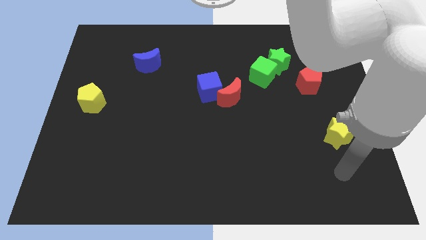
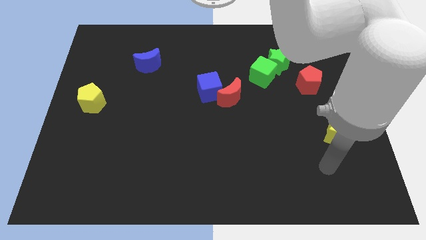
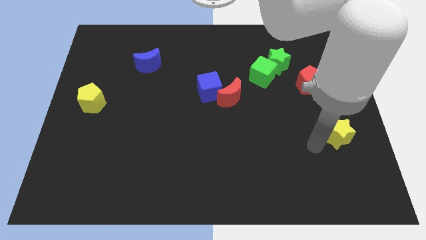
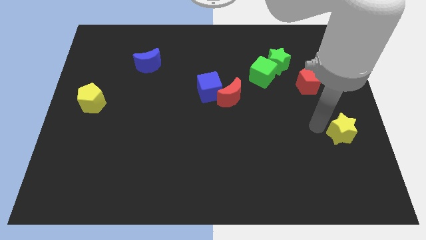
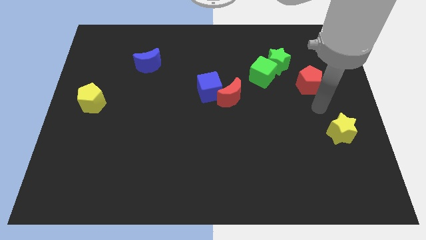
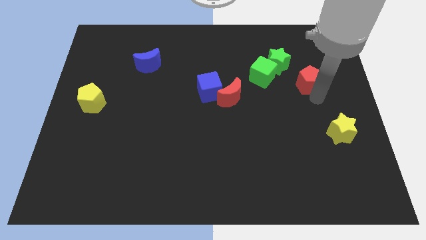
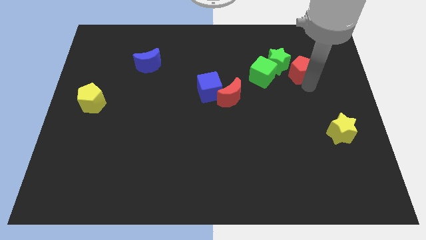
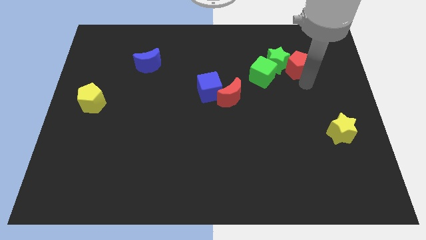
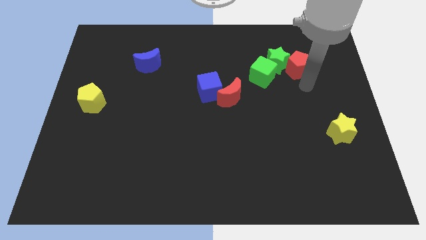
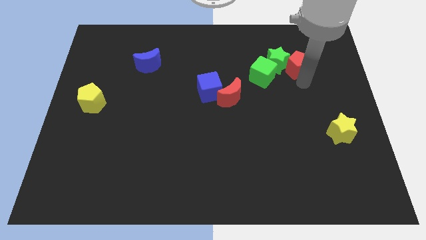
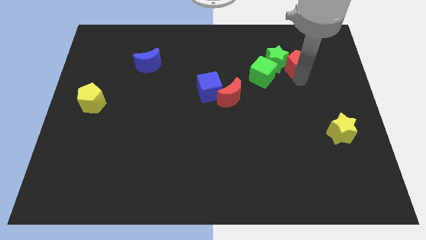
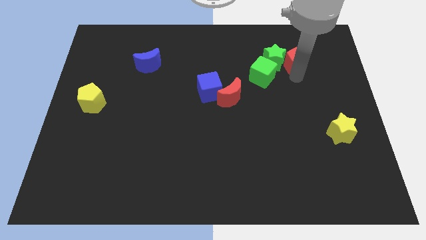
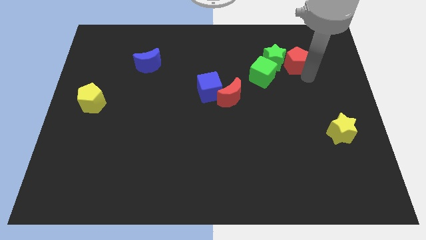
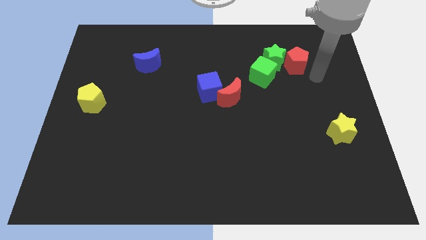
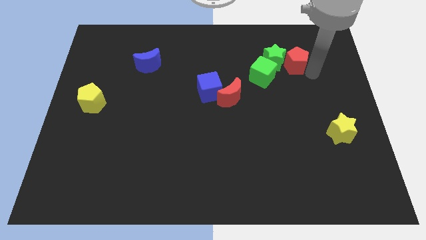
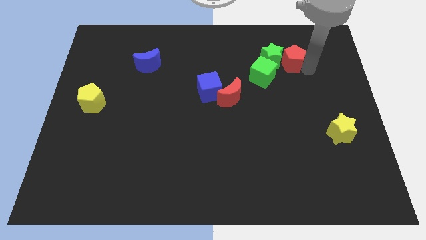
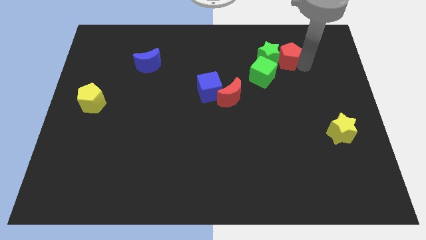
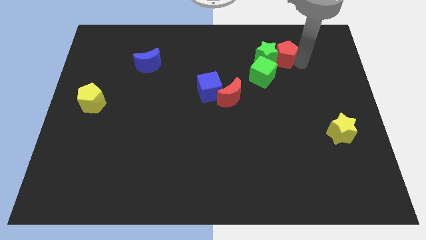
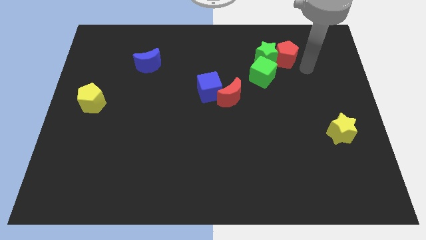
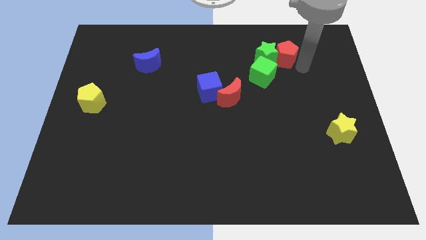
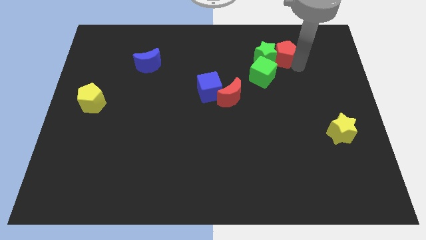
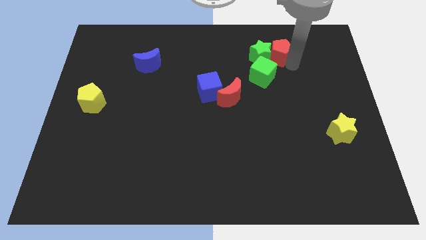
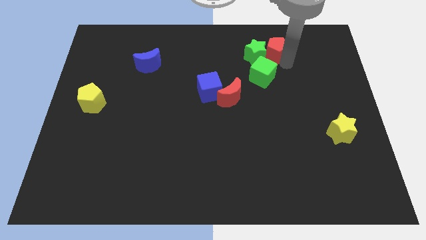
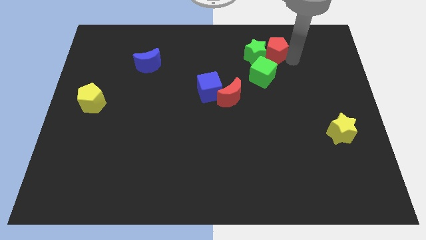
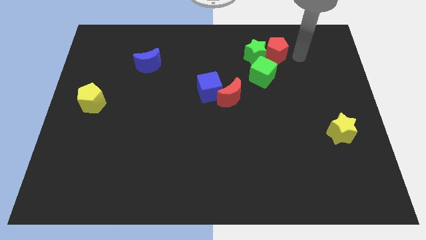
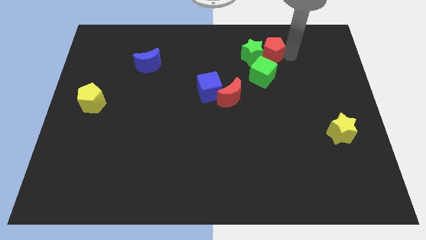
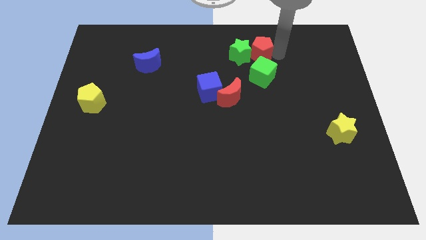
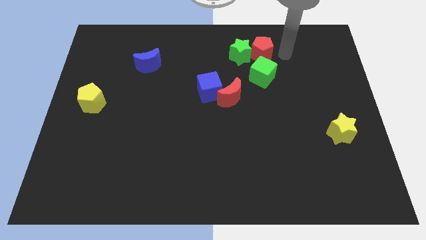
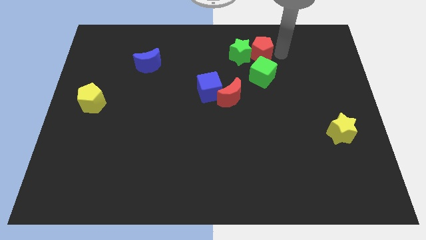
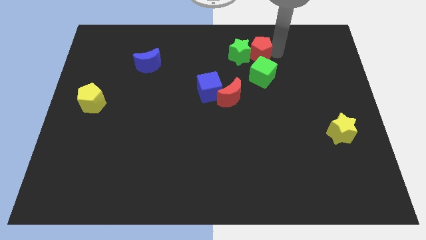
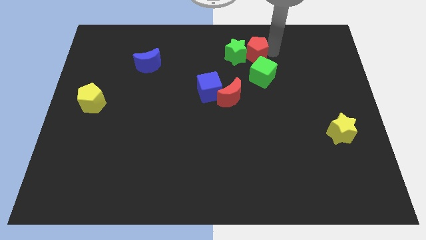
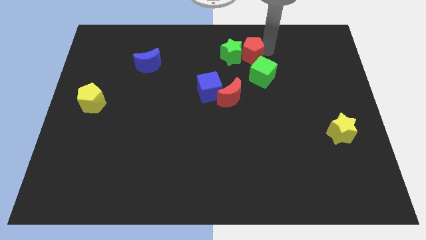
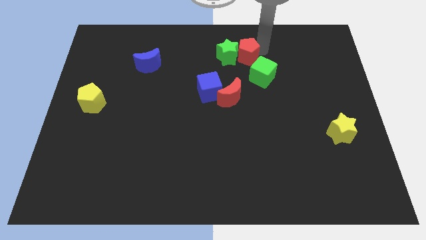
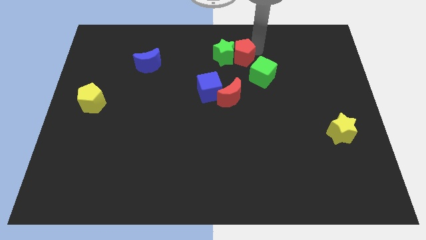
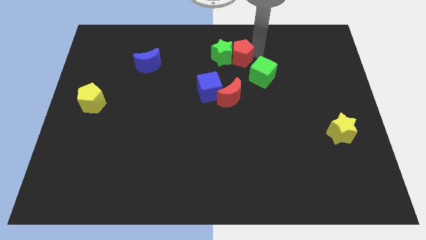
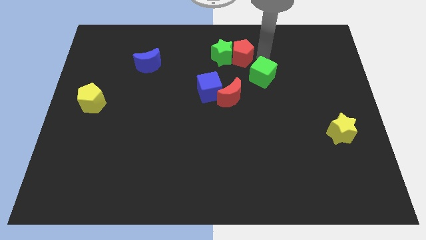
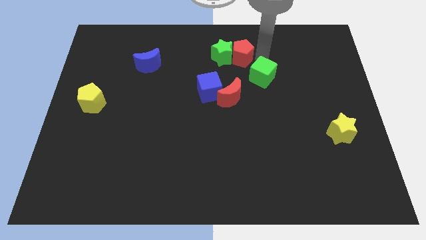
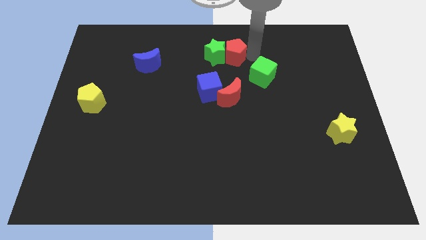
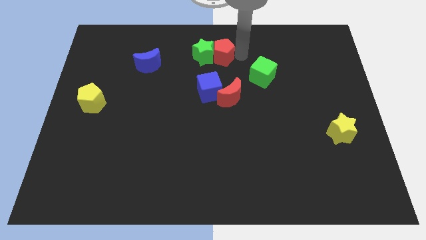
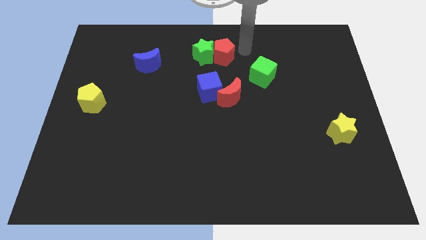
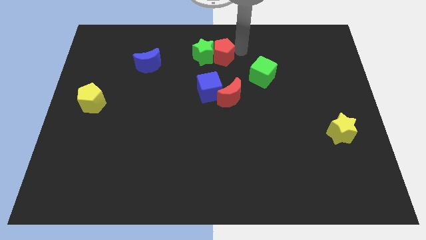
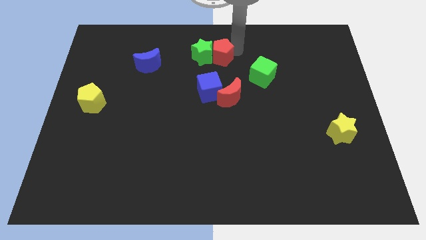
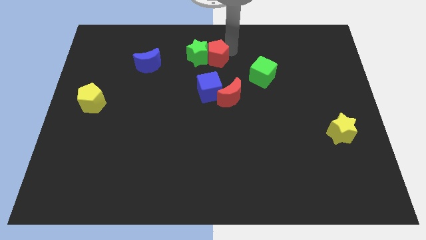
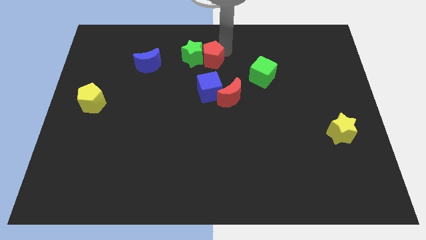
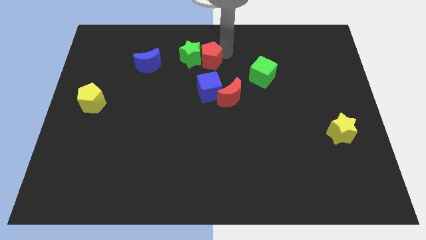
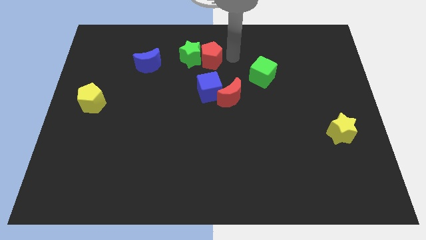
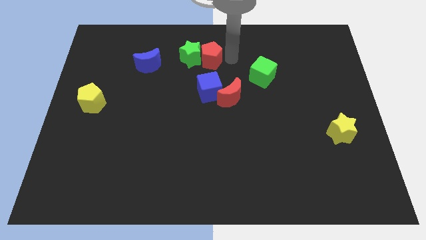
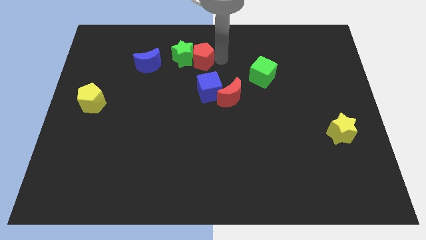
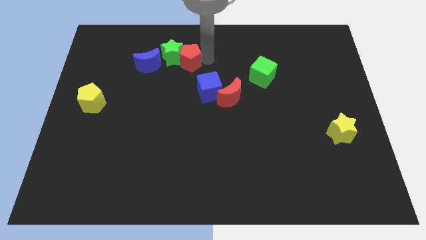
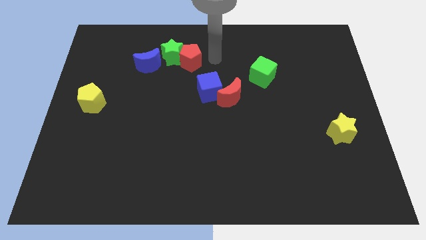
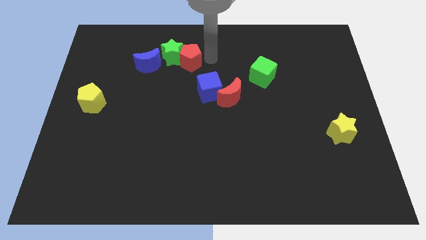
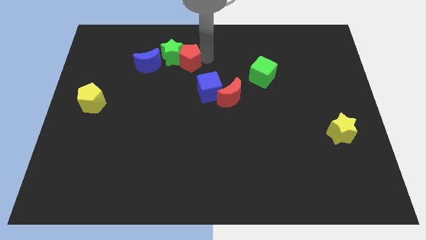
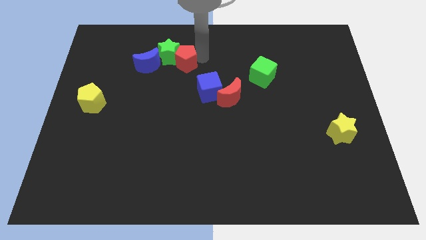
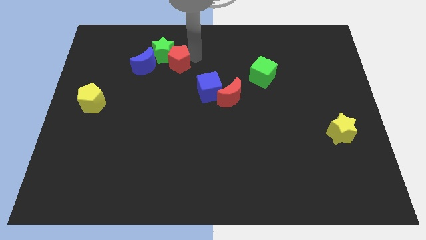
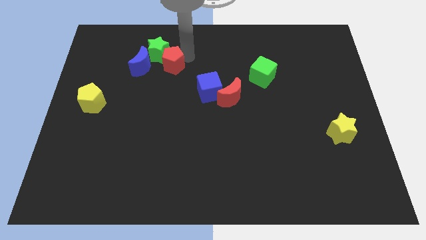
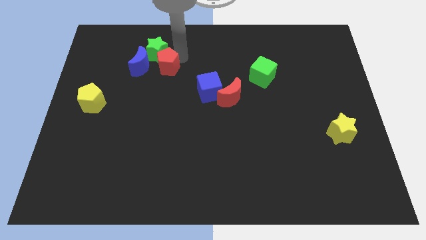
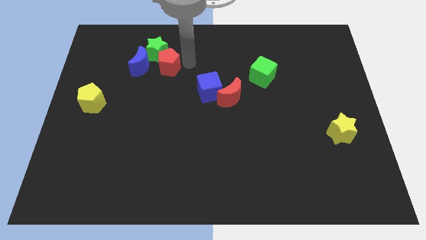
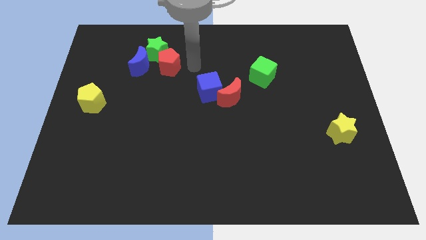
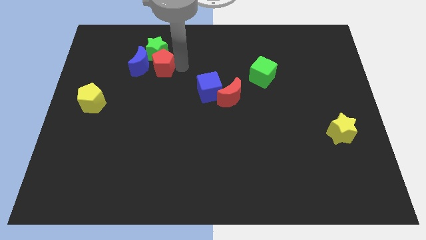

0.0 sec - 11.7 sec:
put the red pentagon next to the blue moon

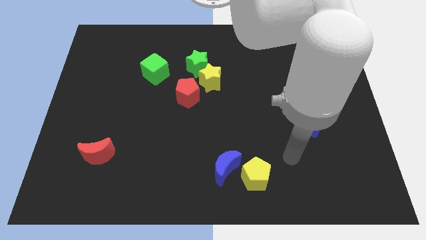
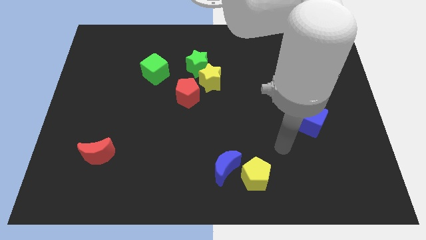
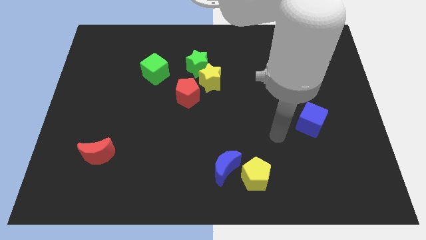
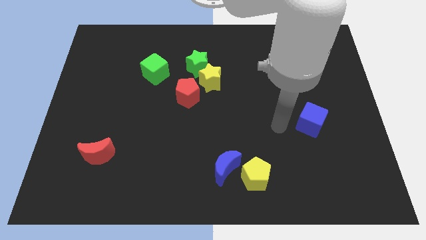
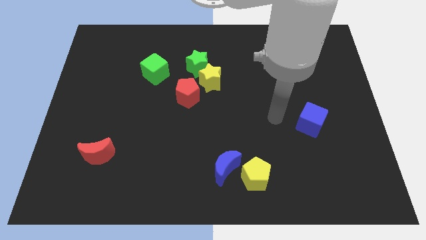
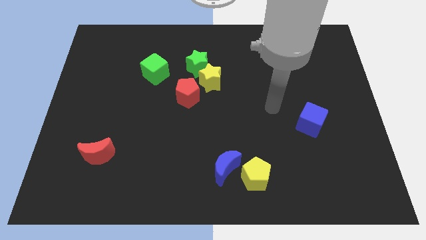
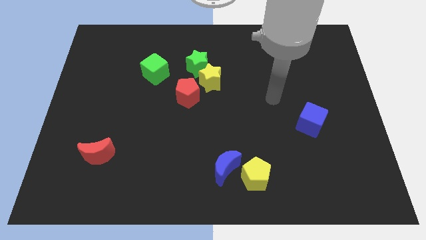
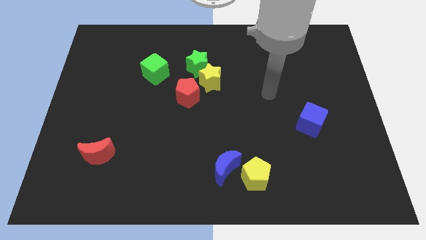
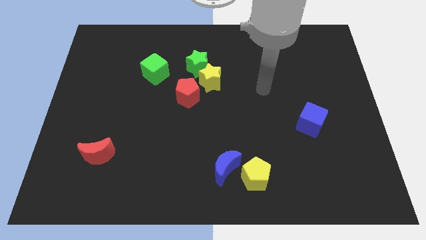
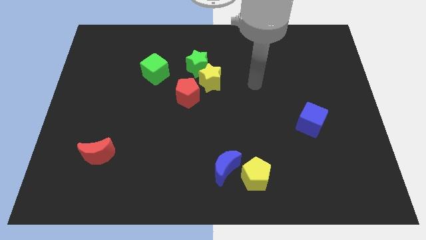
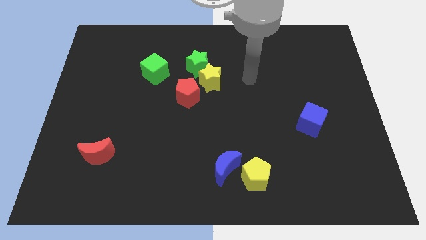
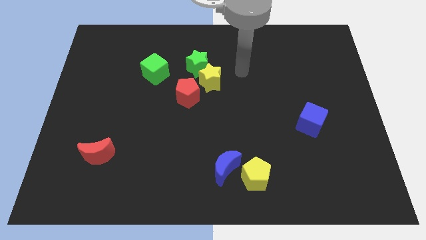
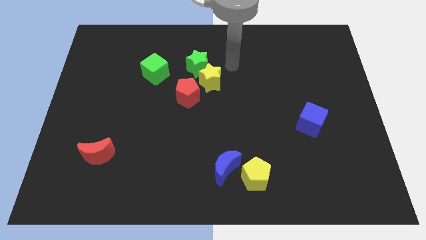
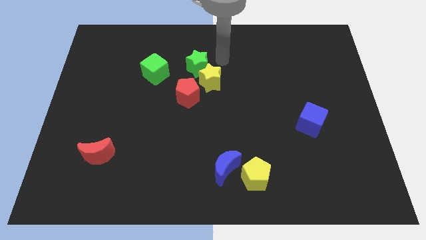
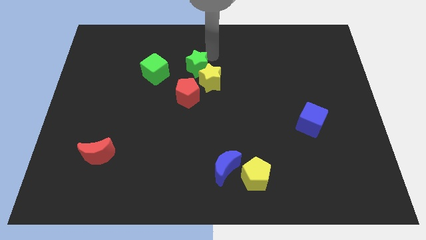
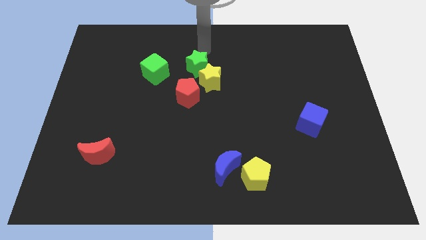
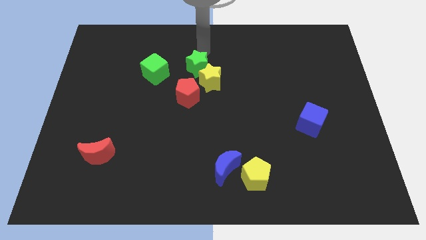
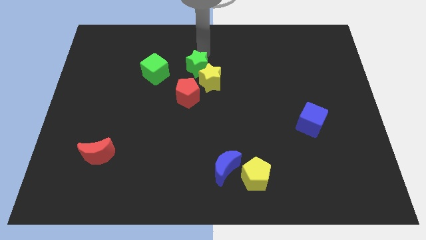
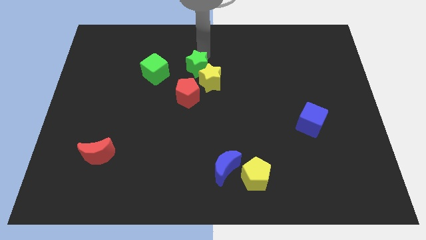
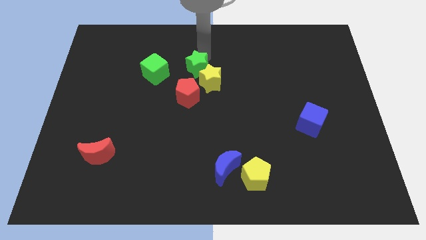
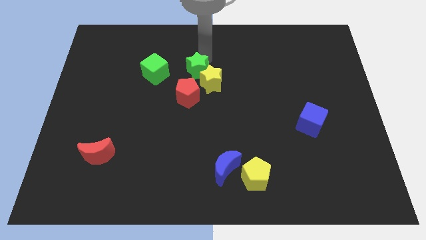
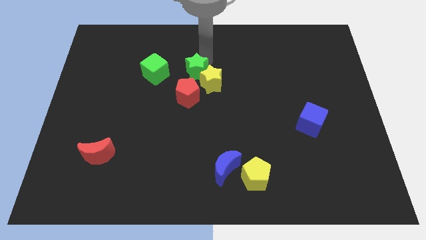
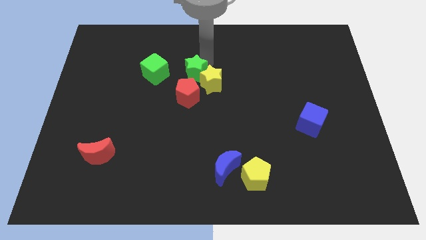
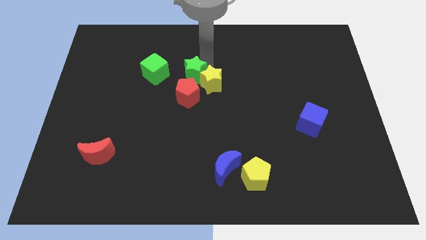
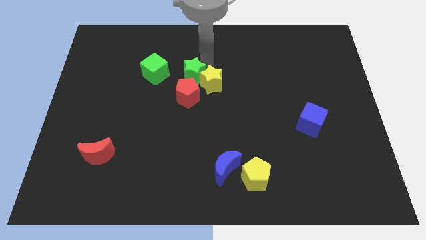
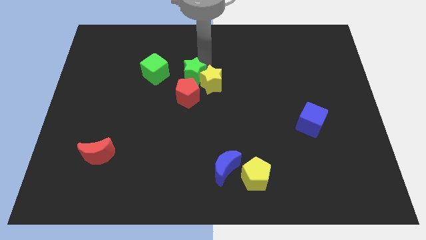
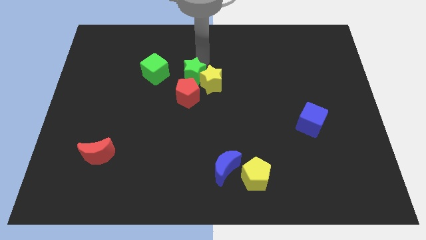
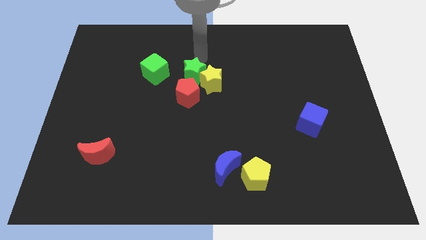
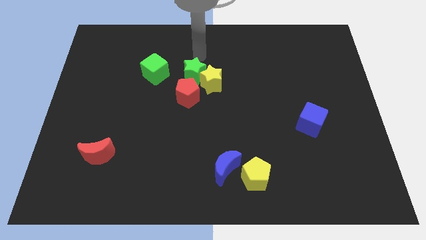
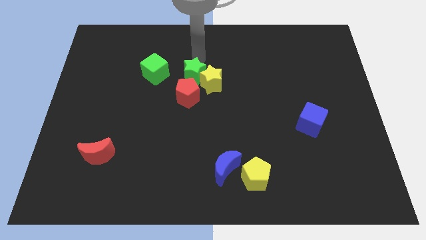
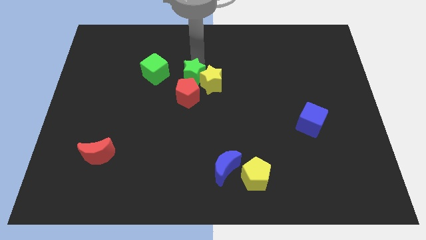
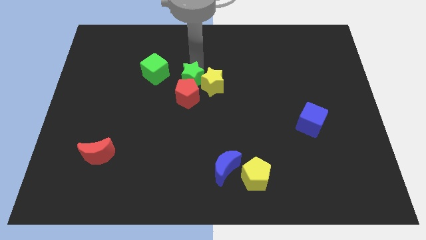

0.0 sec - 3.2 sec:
put the green star close to the red pentagon
